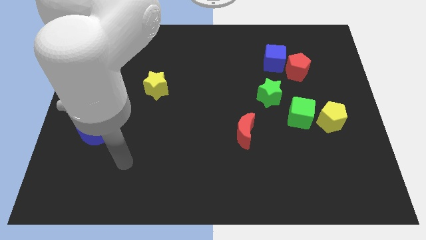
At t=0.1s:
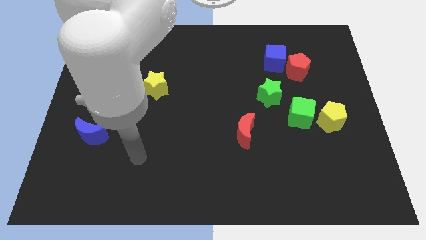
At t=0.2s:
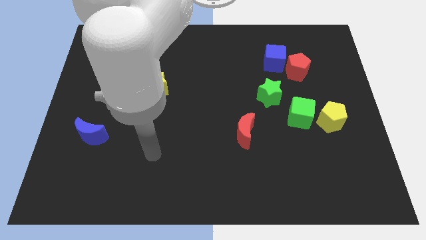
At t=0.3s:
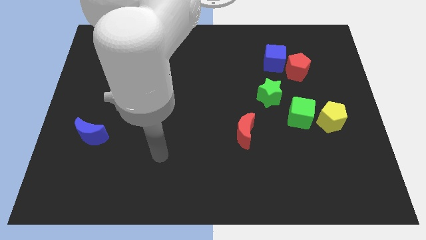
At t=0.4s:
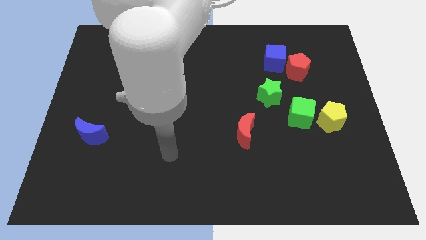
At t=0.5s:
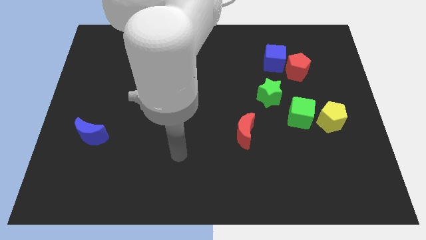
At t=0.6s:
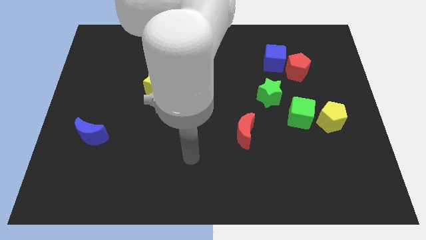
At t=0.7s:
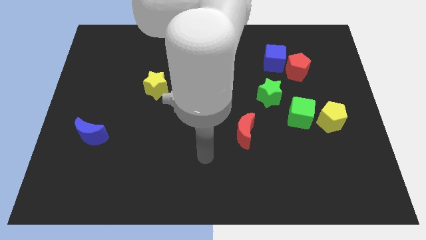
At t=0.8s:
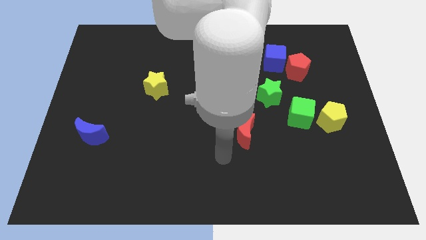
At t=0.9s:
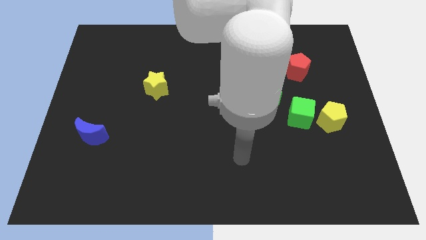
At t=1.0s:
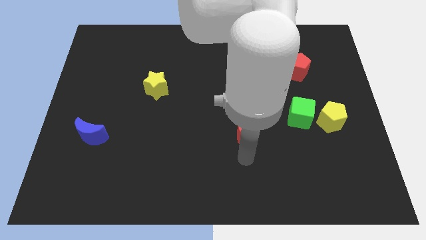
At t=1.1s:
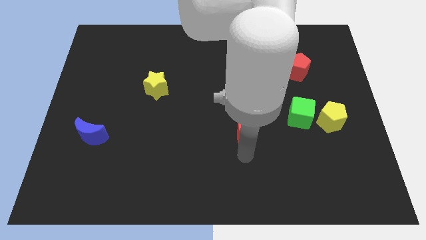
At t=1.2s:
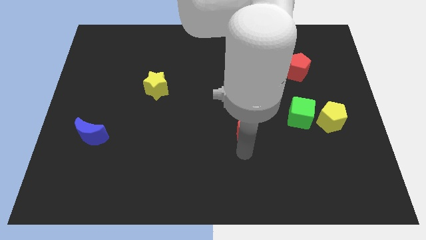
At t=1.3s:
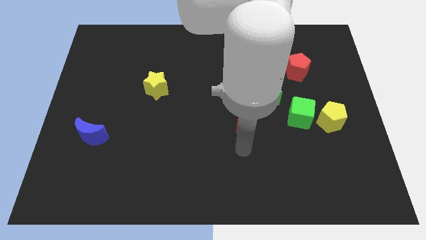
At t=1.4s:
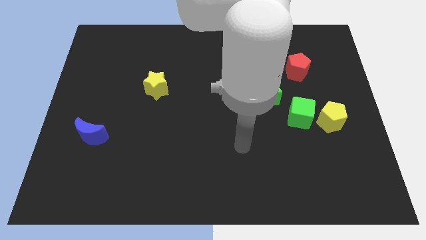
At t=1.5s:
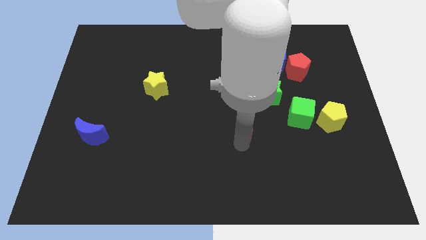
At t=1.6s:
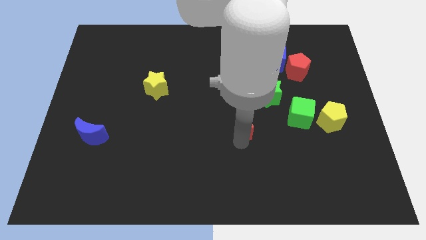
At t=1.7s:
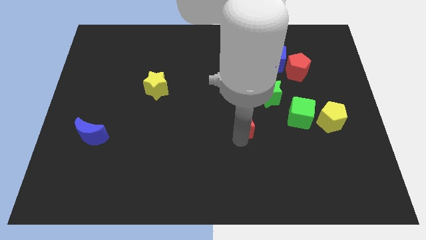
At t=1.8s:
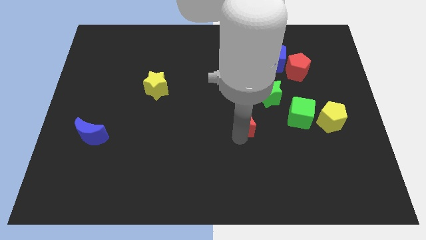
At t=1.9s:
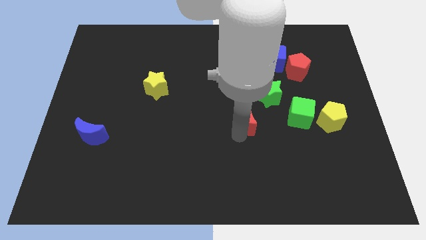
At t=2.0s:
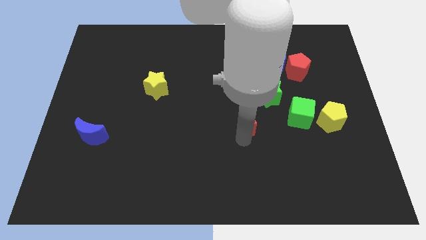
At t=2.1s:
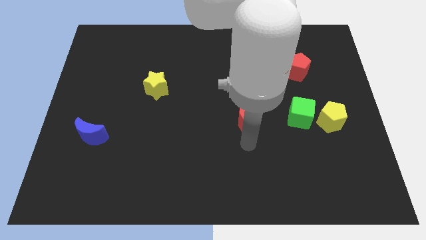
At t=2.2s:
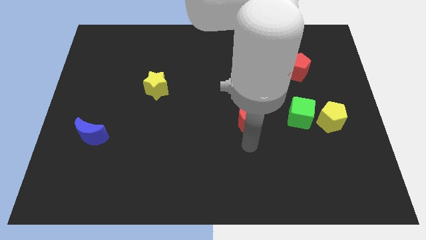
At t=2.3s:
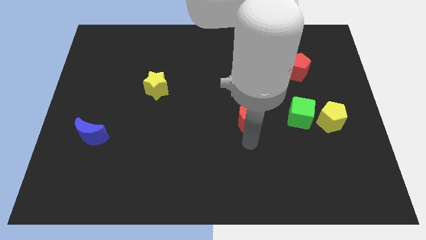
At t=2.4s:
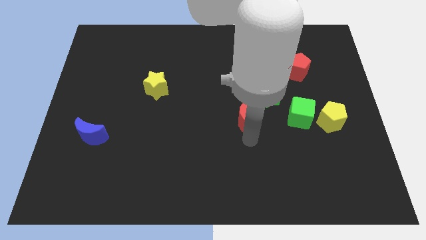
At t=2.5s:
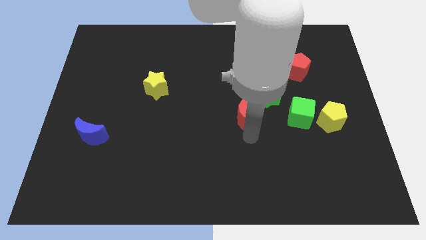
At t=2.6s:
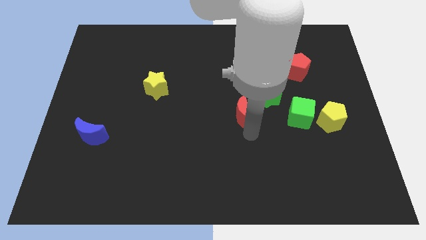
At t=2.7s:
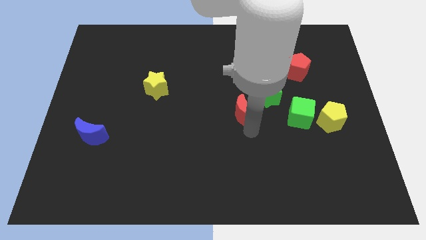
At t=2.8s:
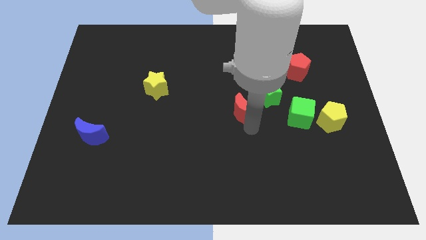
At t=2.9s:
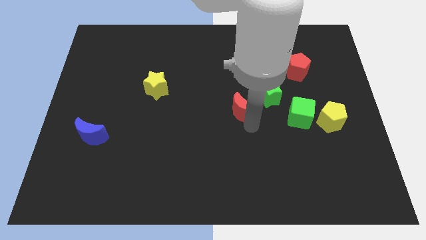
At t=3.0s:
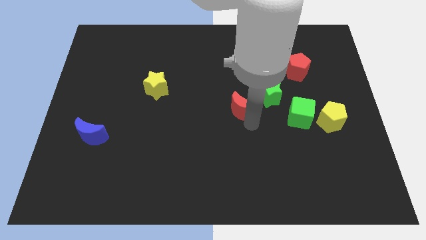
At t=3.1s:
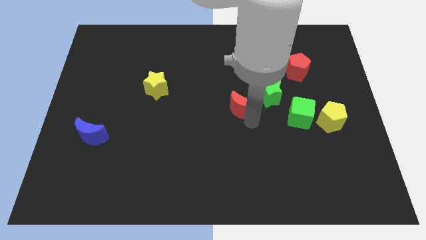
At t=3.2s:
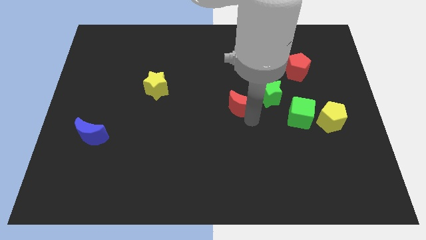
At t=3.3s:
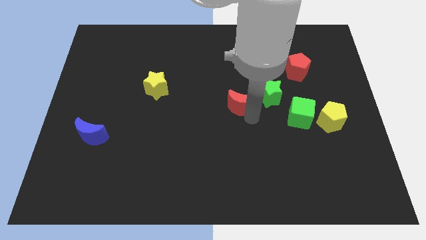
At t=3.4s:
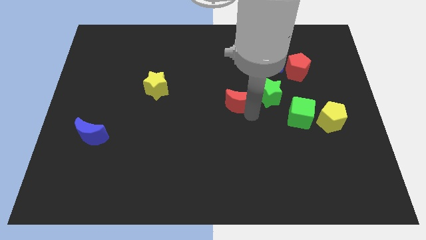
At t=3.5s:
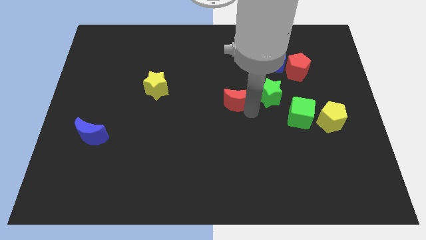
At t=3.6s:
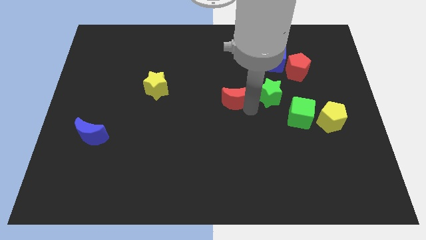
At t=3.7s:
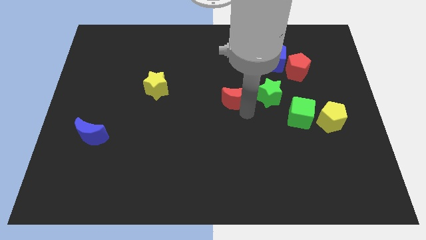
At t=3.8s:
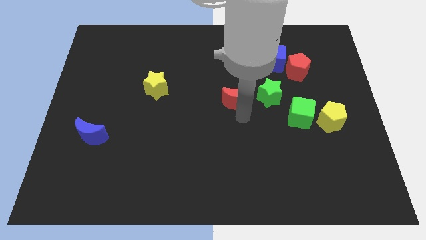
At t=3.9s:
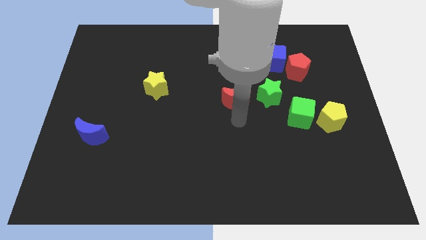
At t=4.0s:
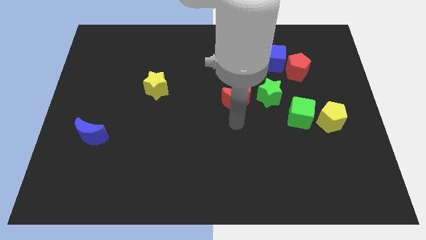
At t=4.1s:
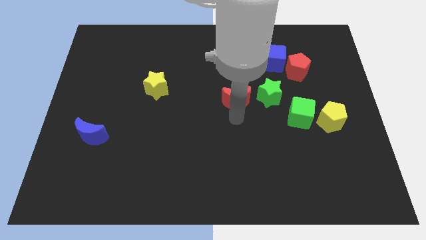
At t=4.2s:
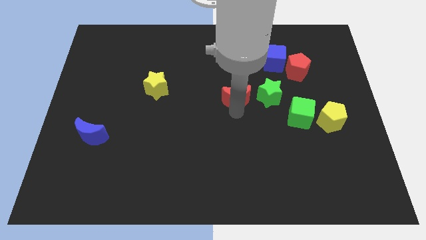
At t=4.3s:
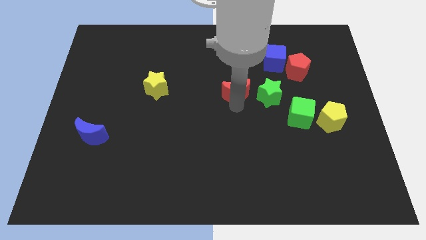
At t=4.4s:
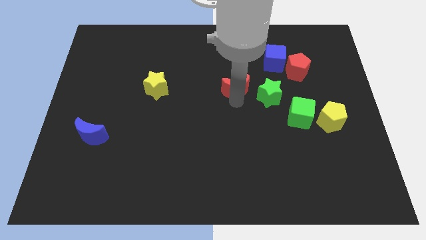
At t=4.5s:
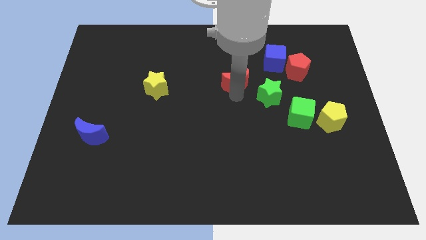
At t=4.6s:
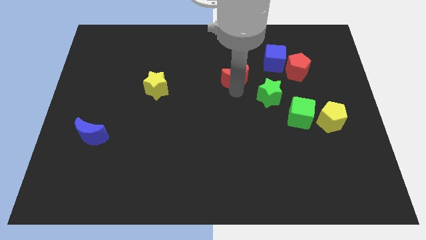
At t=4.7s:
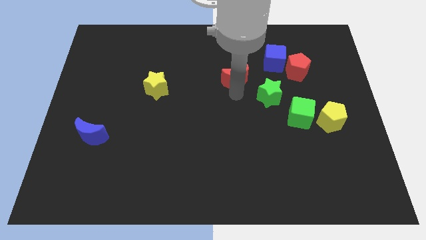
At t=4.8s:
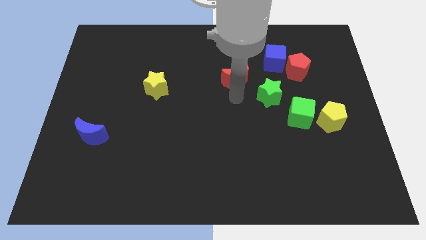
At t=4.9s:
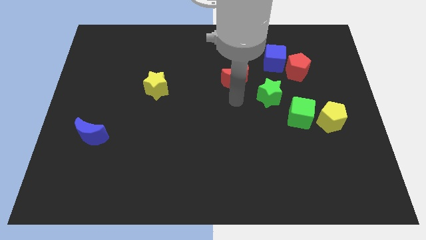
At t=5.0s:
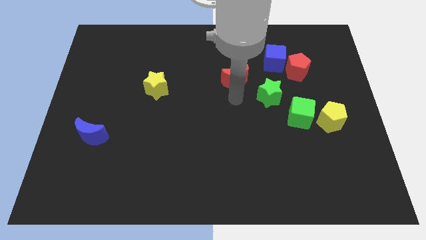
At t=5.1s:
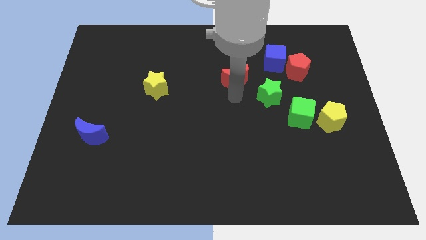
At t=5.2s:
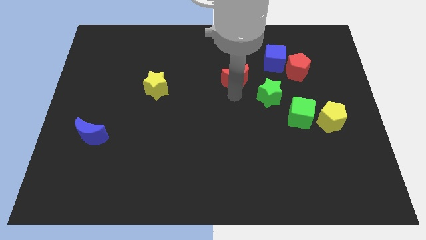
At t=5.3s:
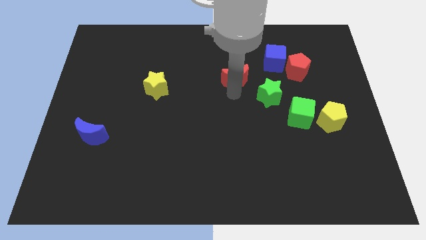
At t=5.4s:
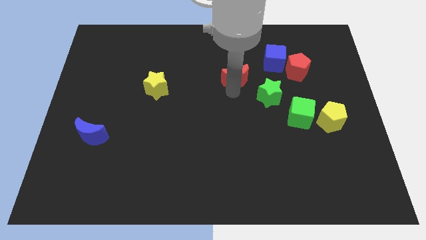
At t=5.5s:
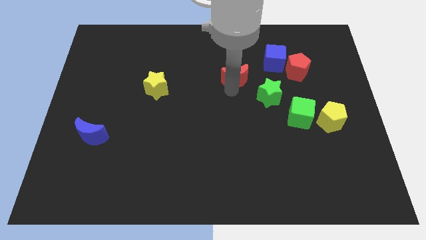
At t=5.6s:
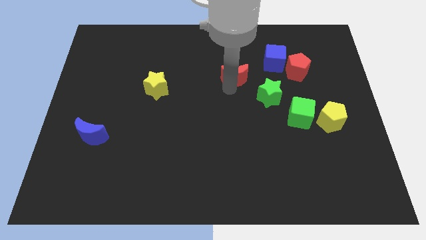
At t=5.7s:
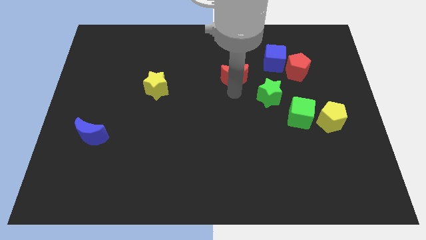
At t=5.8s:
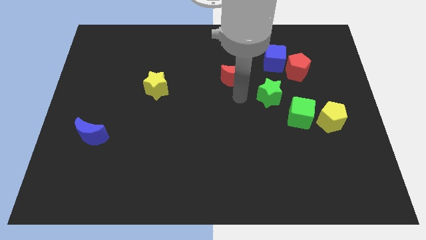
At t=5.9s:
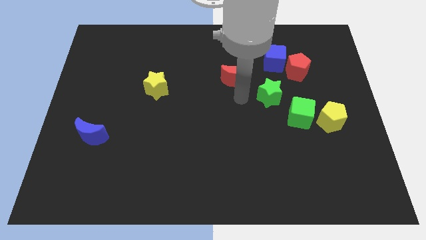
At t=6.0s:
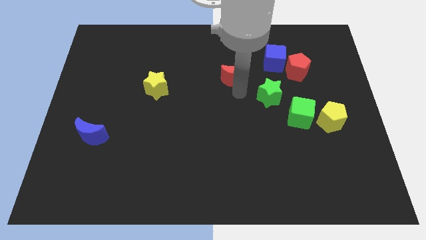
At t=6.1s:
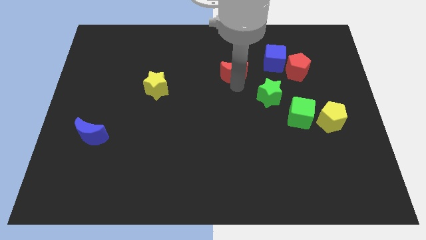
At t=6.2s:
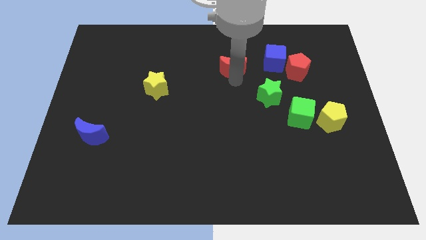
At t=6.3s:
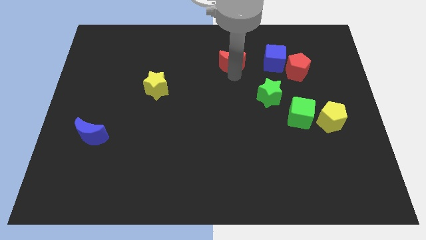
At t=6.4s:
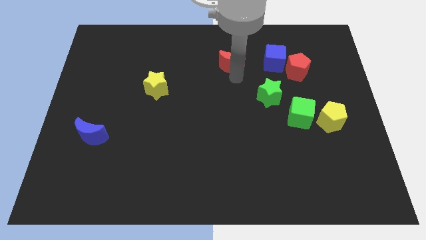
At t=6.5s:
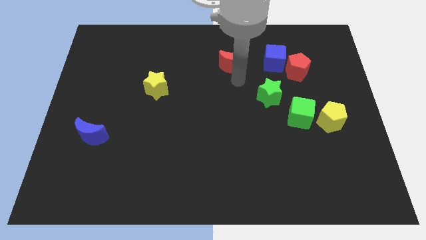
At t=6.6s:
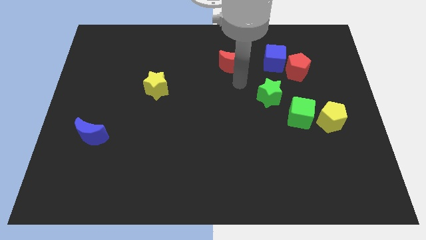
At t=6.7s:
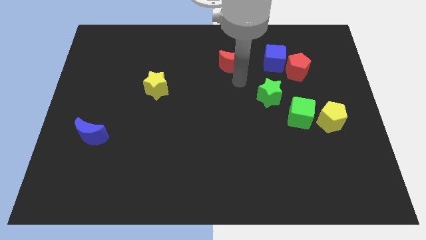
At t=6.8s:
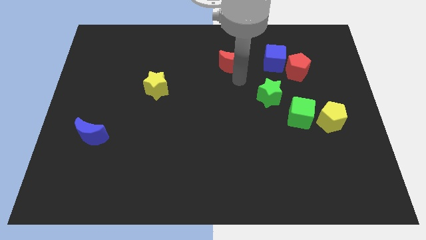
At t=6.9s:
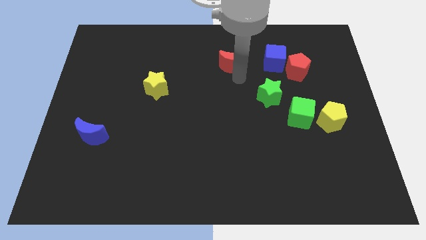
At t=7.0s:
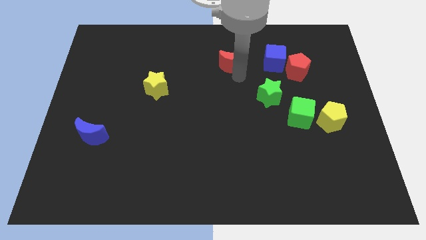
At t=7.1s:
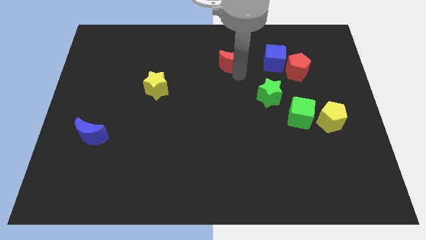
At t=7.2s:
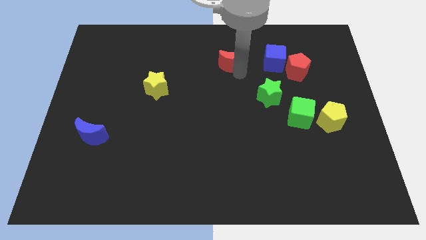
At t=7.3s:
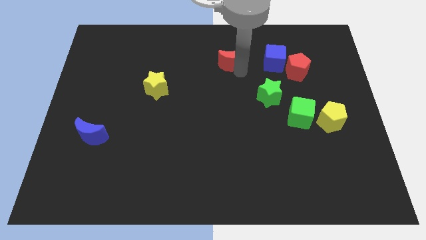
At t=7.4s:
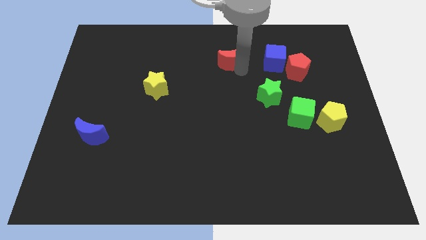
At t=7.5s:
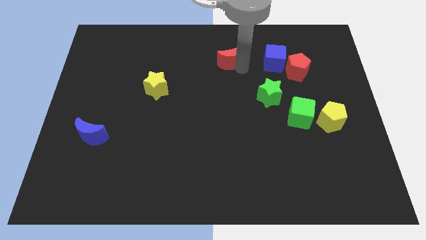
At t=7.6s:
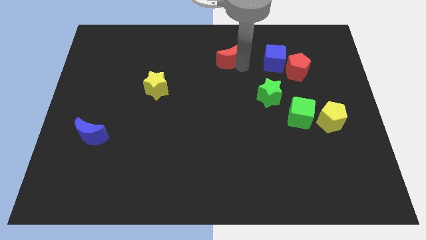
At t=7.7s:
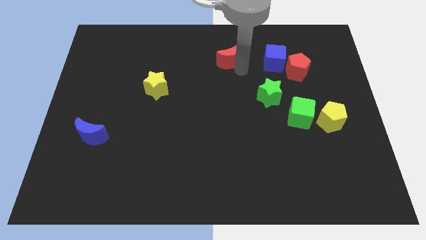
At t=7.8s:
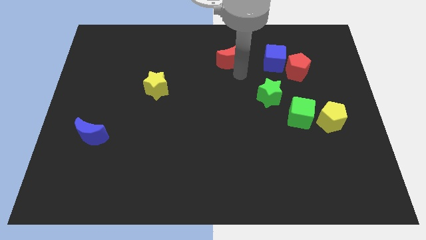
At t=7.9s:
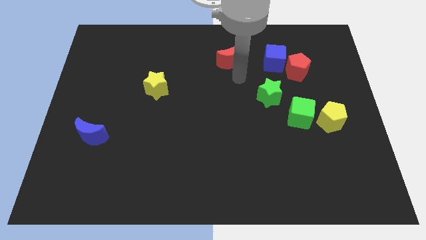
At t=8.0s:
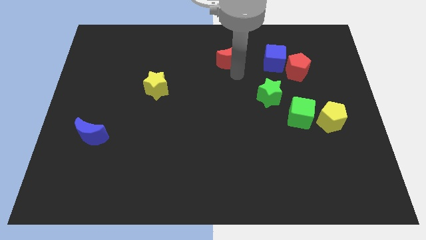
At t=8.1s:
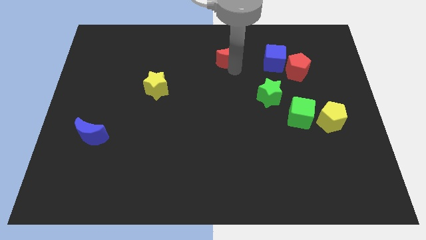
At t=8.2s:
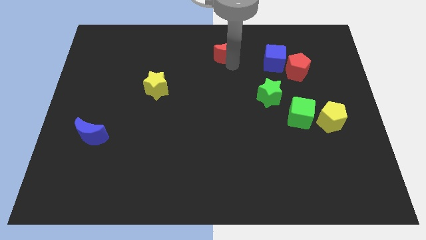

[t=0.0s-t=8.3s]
move the red moon to the towards your base
